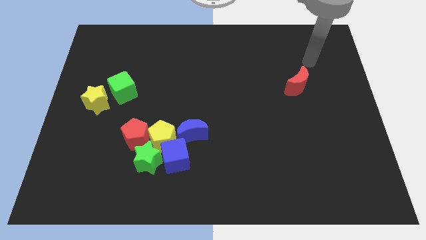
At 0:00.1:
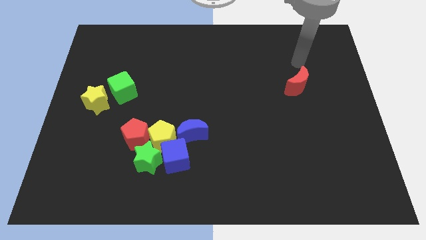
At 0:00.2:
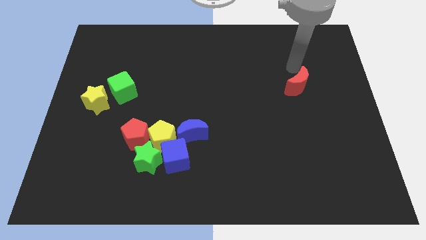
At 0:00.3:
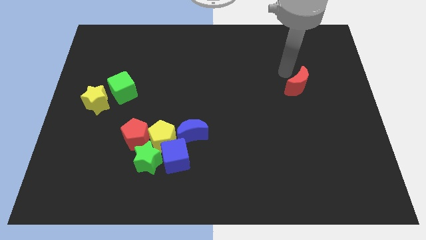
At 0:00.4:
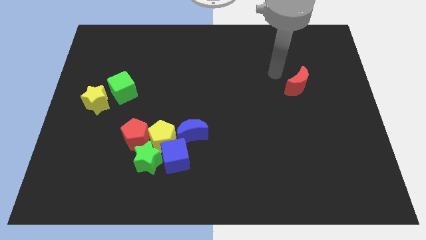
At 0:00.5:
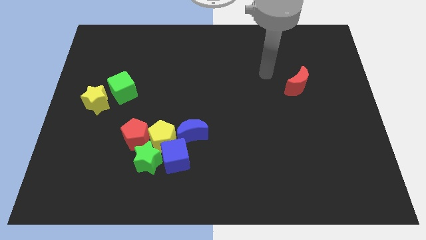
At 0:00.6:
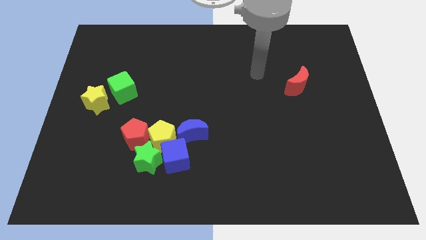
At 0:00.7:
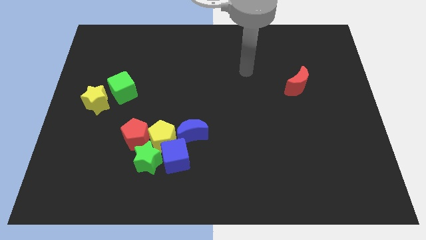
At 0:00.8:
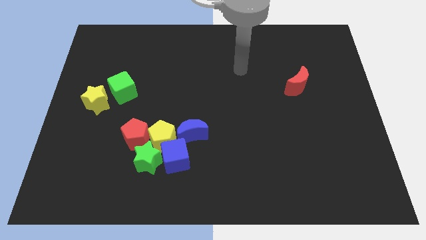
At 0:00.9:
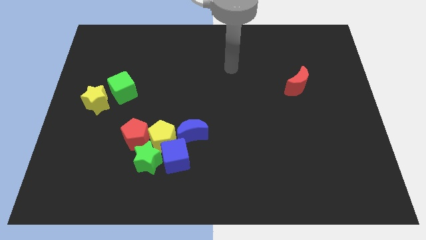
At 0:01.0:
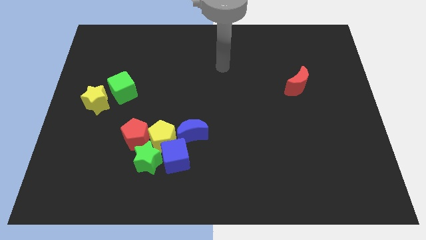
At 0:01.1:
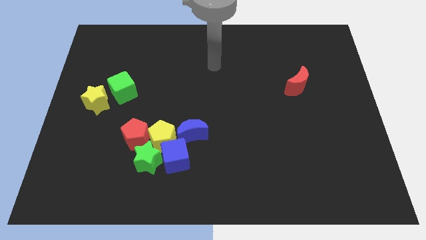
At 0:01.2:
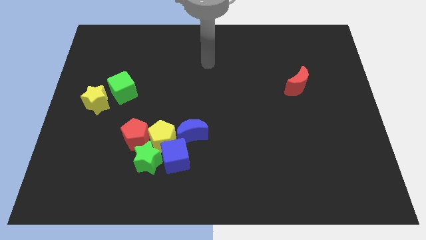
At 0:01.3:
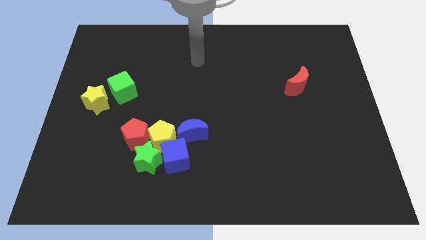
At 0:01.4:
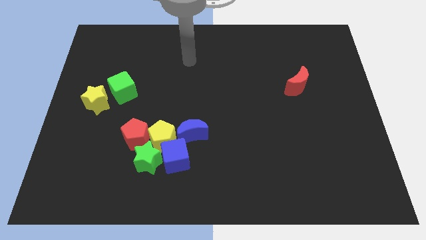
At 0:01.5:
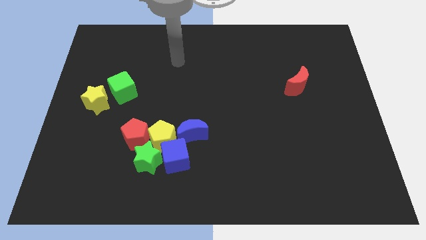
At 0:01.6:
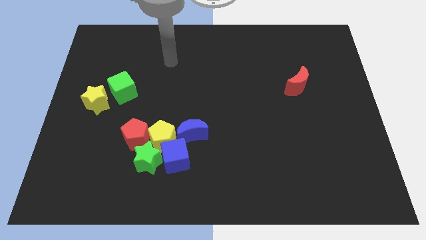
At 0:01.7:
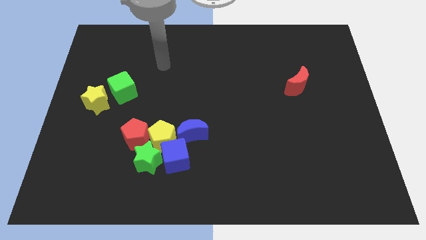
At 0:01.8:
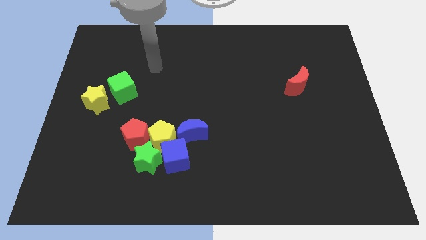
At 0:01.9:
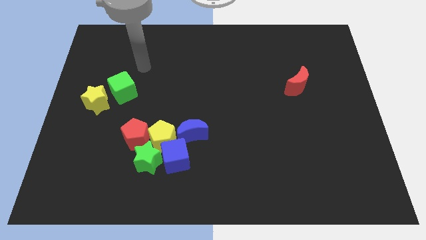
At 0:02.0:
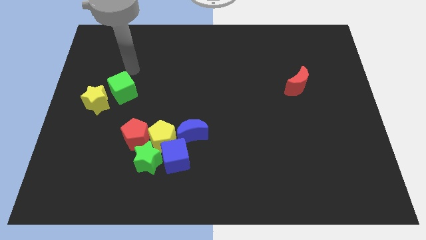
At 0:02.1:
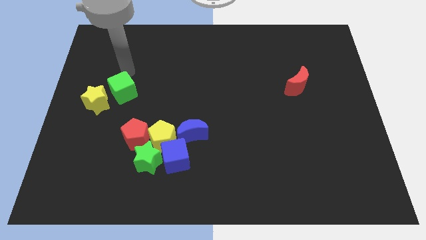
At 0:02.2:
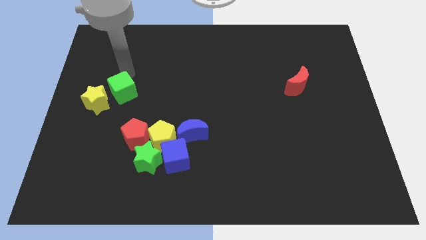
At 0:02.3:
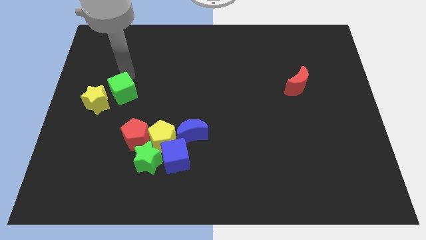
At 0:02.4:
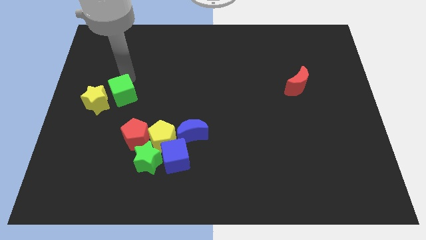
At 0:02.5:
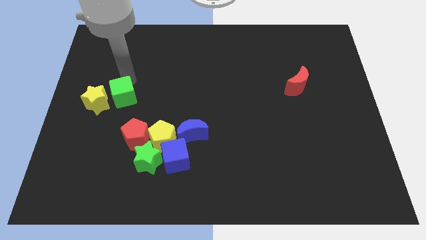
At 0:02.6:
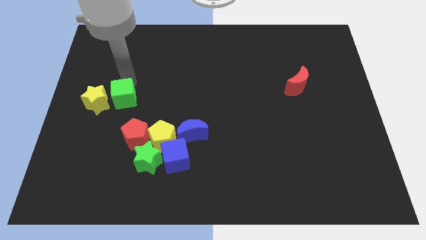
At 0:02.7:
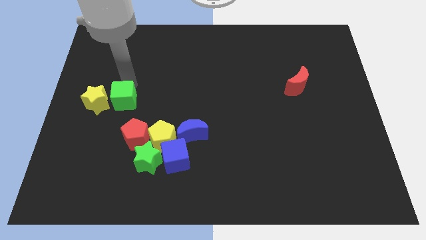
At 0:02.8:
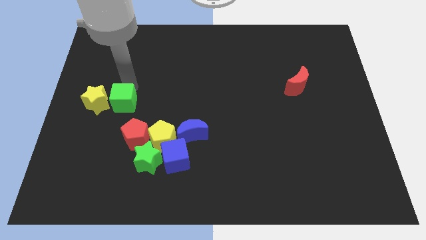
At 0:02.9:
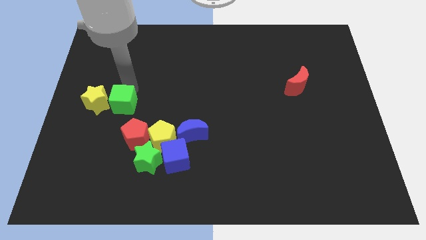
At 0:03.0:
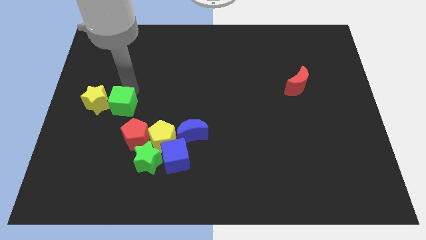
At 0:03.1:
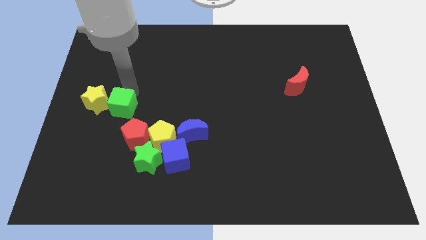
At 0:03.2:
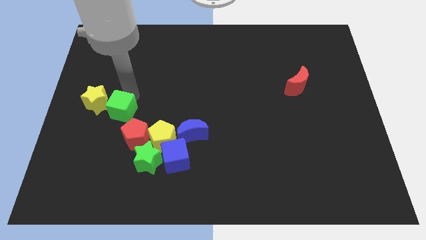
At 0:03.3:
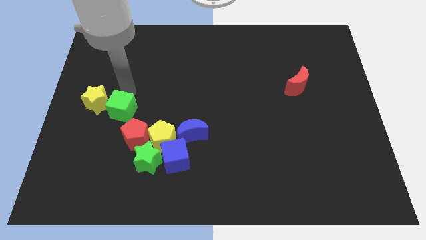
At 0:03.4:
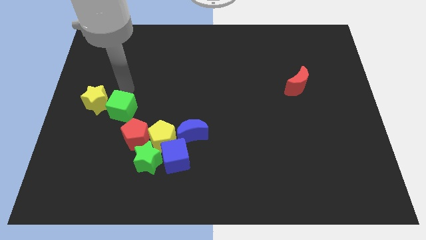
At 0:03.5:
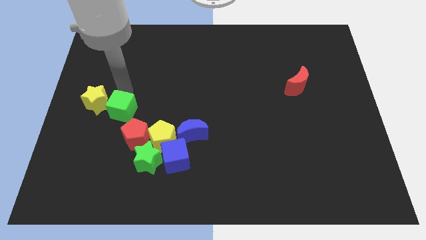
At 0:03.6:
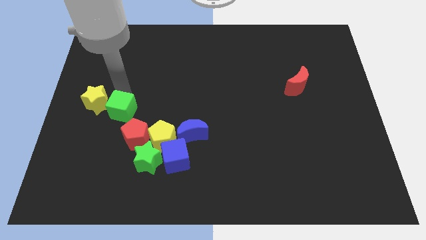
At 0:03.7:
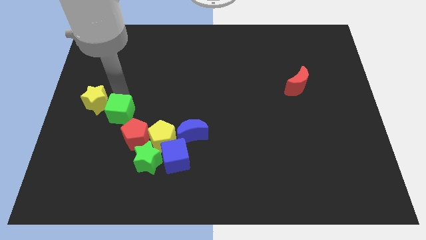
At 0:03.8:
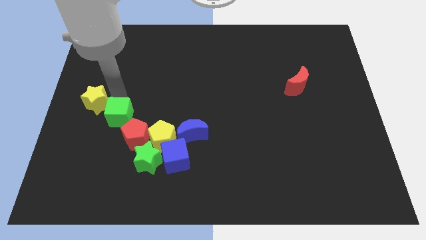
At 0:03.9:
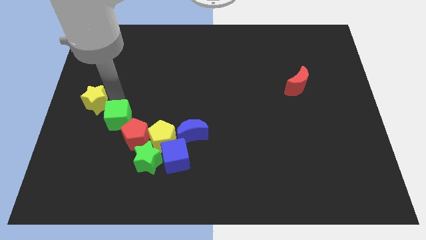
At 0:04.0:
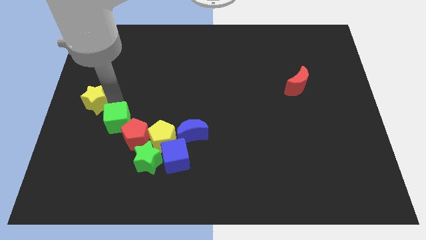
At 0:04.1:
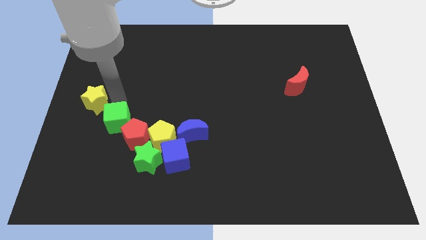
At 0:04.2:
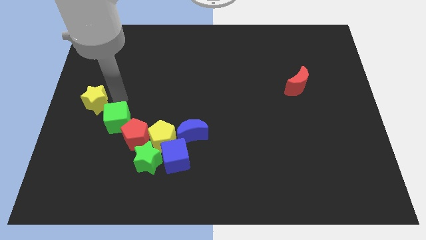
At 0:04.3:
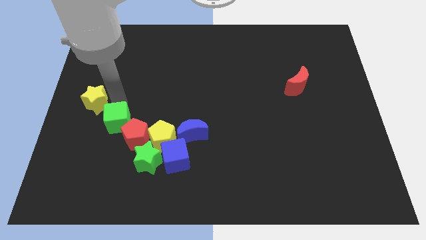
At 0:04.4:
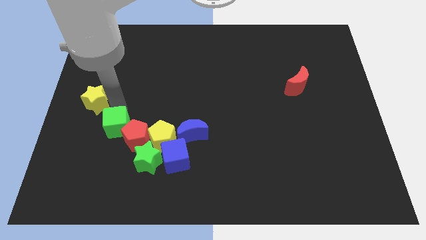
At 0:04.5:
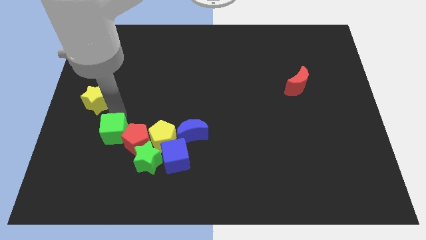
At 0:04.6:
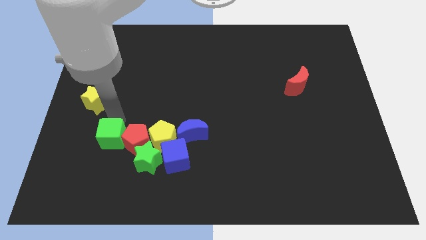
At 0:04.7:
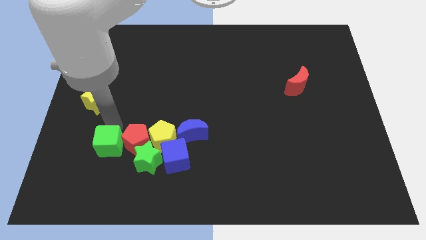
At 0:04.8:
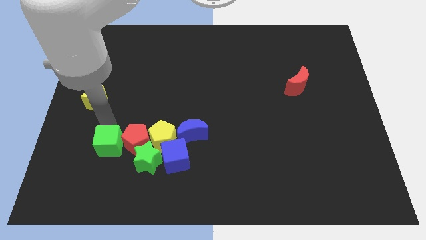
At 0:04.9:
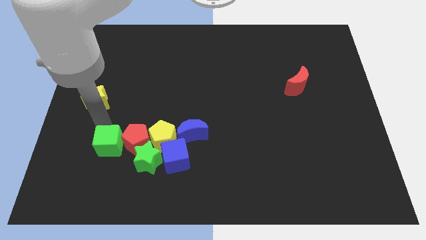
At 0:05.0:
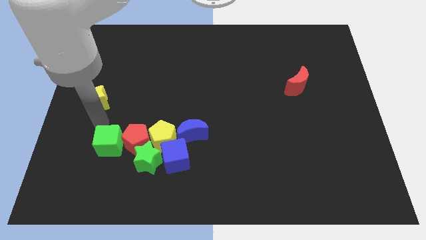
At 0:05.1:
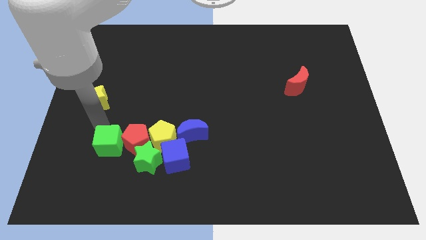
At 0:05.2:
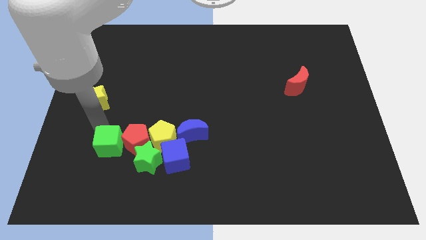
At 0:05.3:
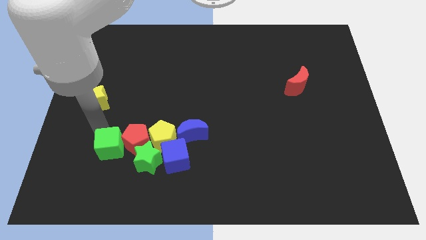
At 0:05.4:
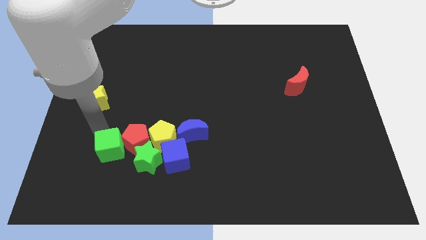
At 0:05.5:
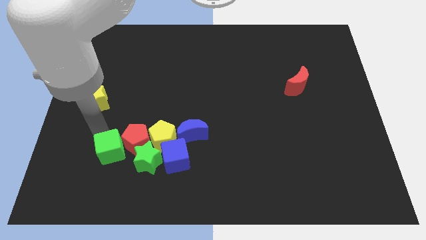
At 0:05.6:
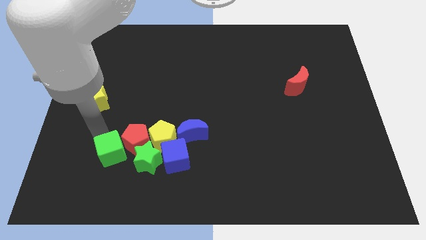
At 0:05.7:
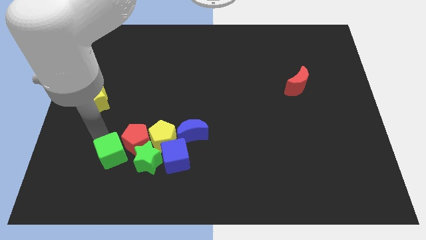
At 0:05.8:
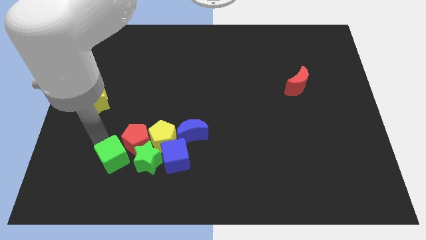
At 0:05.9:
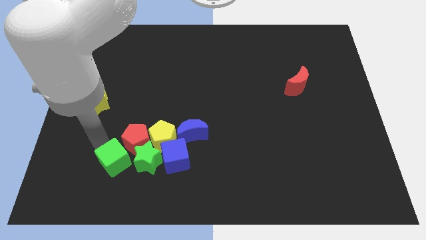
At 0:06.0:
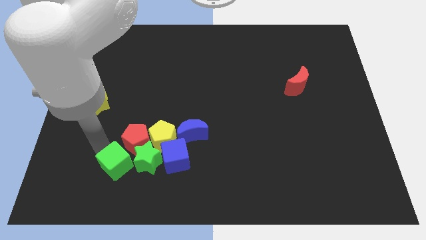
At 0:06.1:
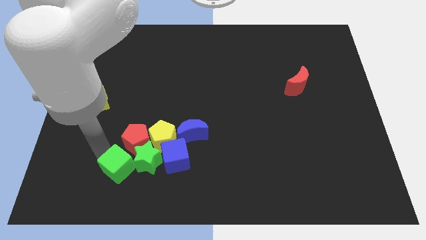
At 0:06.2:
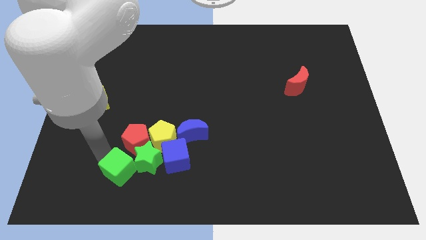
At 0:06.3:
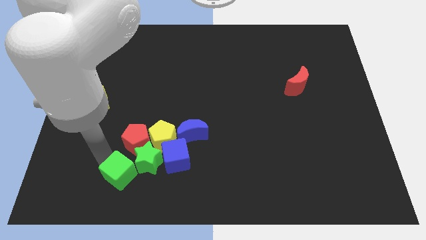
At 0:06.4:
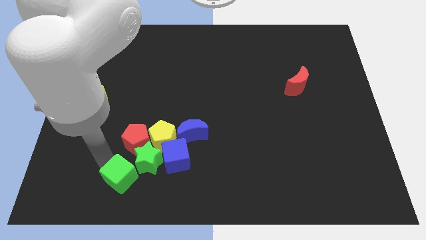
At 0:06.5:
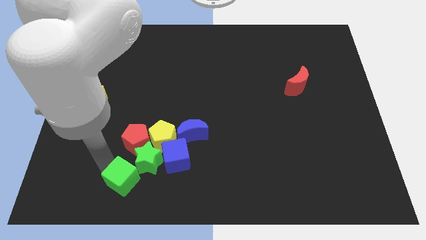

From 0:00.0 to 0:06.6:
push the green cube diagonally down and to the left of the blue cube

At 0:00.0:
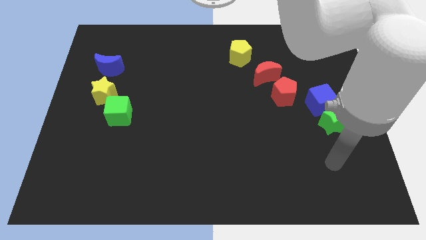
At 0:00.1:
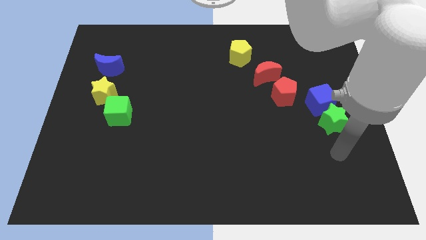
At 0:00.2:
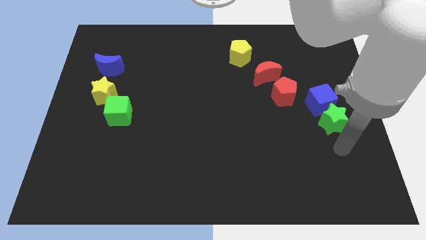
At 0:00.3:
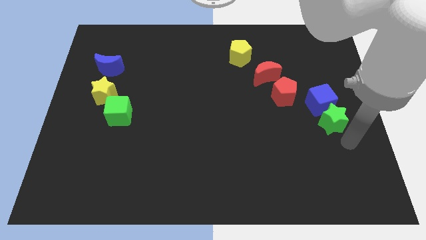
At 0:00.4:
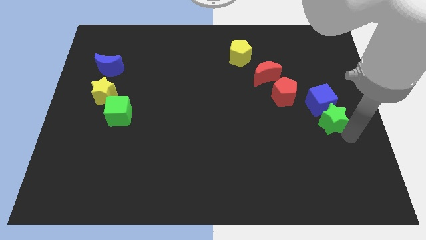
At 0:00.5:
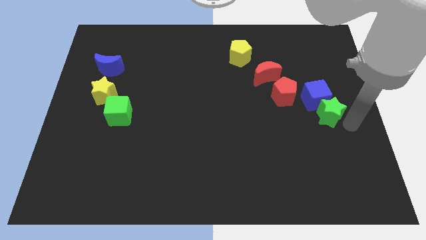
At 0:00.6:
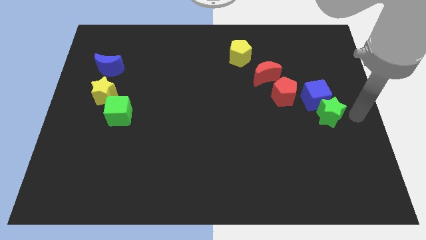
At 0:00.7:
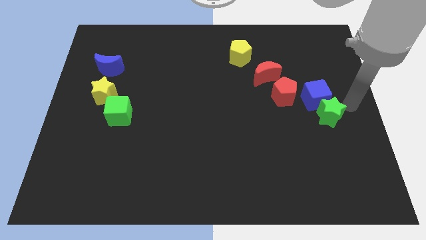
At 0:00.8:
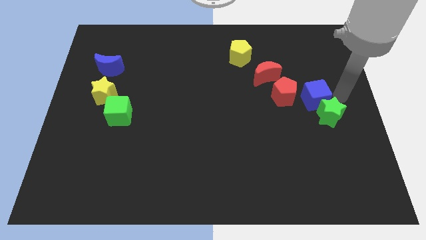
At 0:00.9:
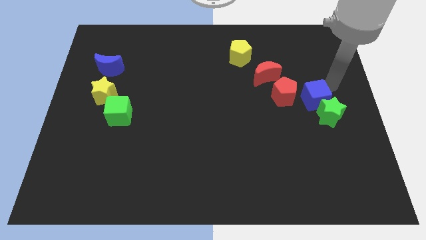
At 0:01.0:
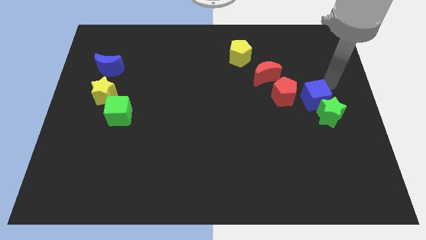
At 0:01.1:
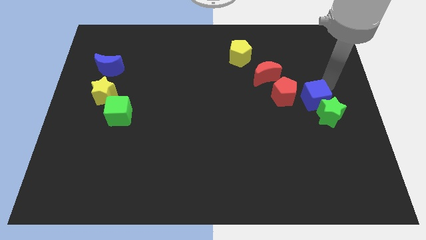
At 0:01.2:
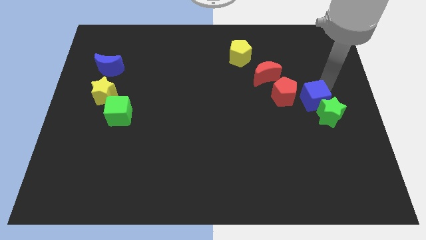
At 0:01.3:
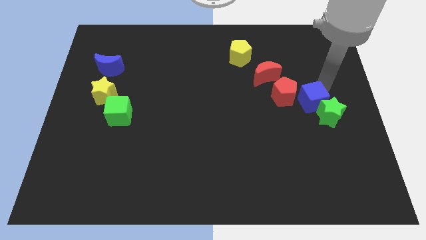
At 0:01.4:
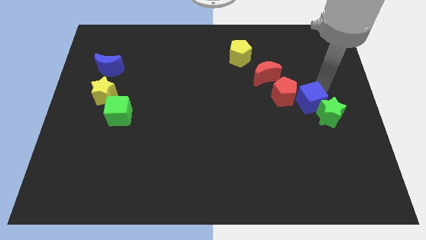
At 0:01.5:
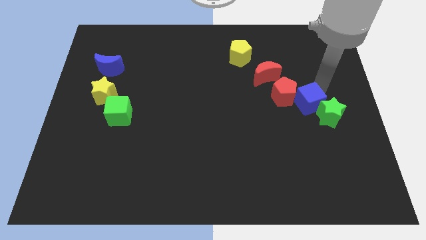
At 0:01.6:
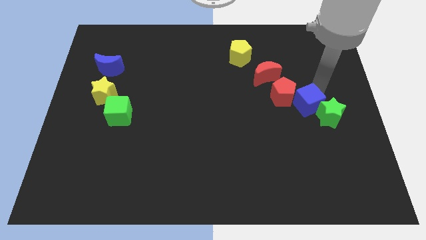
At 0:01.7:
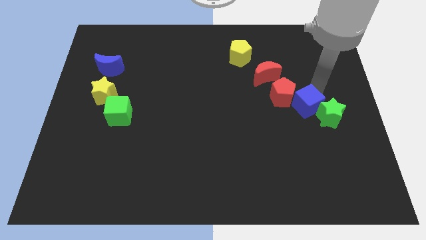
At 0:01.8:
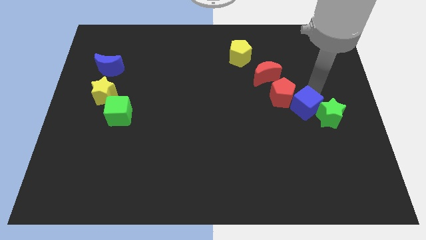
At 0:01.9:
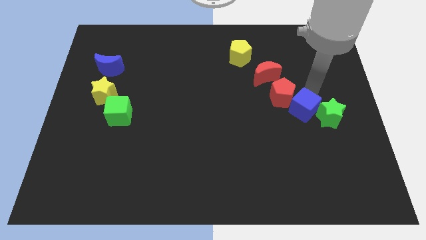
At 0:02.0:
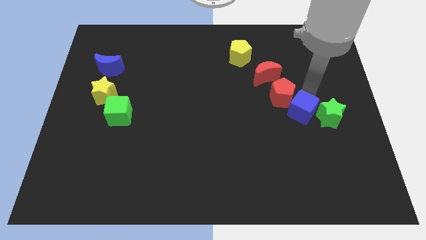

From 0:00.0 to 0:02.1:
slide the blue cube to the bottom of the red pentagon
